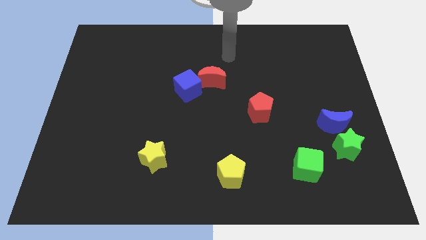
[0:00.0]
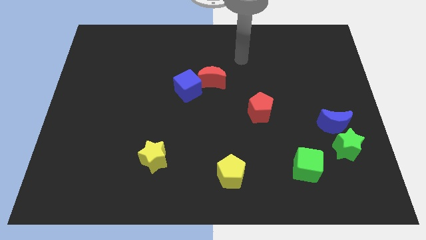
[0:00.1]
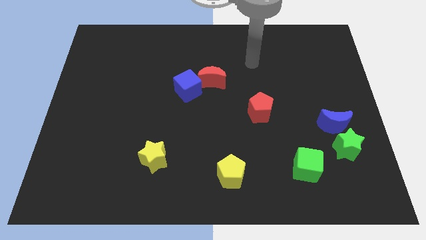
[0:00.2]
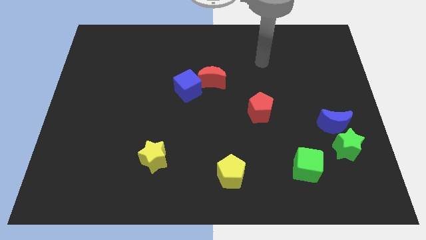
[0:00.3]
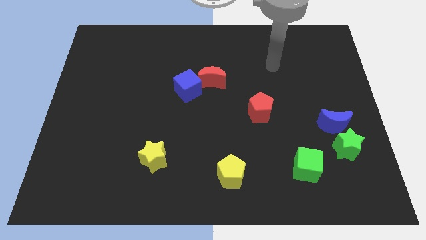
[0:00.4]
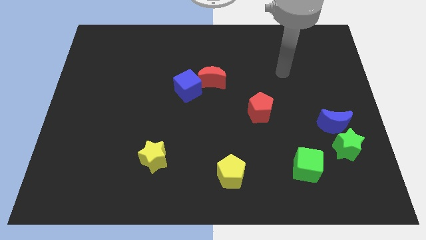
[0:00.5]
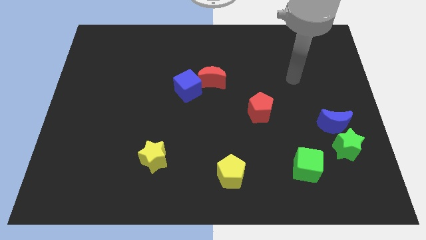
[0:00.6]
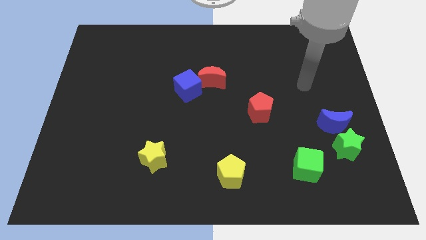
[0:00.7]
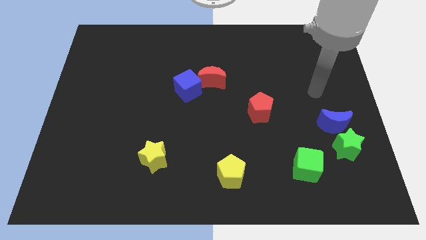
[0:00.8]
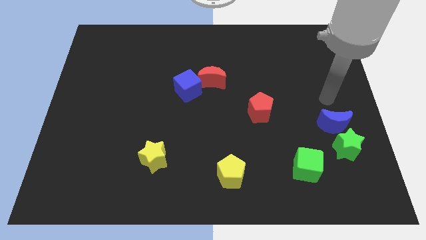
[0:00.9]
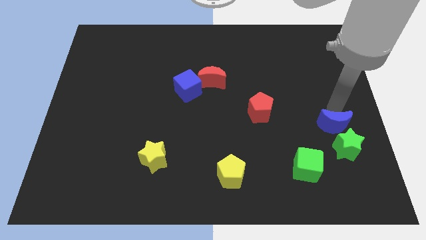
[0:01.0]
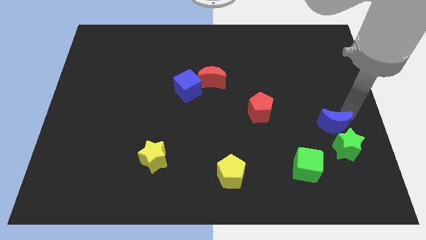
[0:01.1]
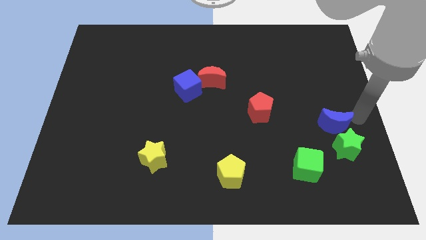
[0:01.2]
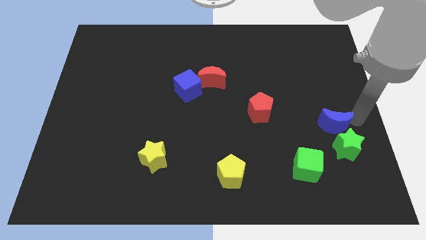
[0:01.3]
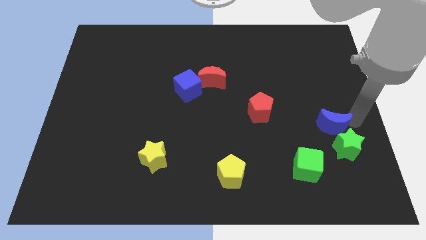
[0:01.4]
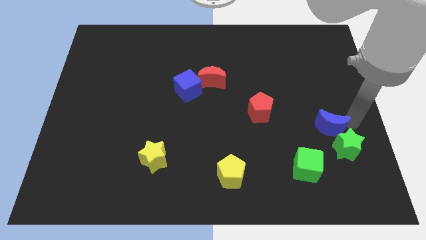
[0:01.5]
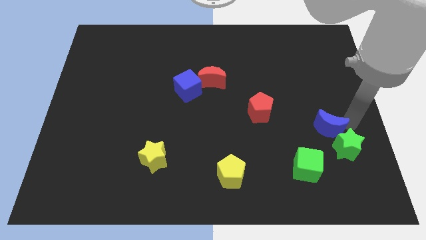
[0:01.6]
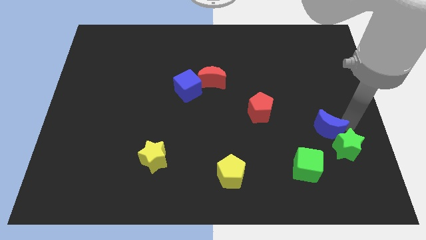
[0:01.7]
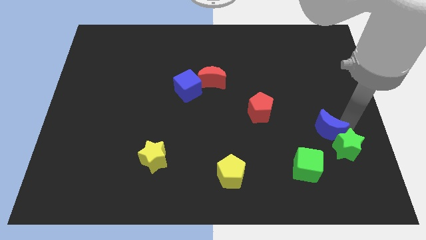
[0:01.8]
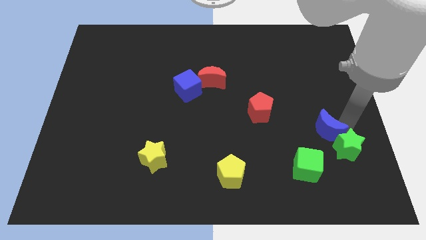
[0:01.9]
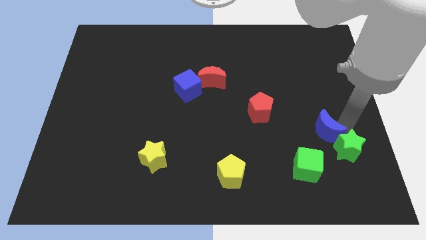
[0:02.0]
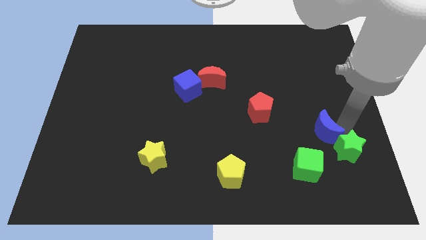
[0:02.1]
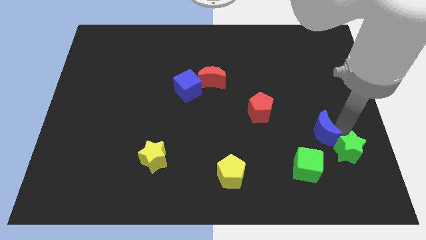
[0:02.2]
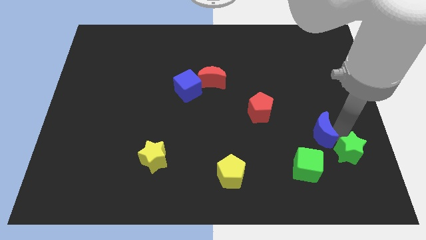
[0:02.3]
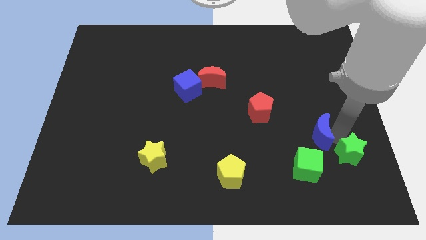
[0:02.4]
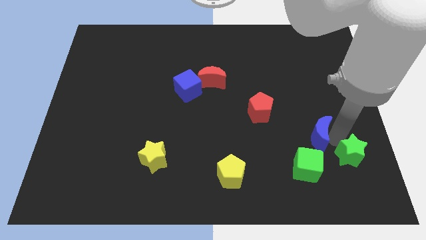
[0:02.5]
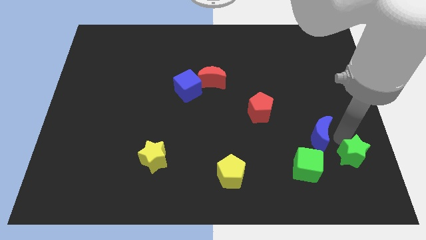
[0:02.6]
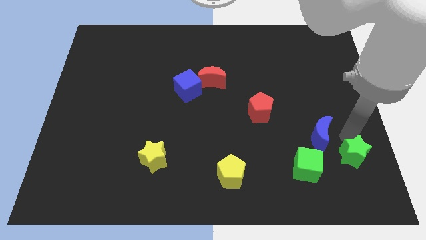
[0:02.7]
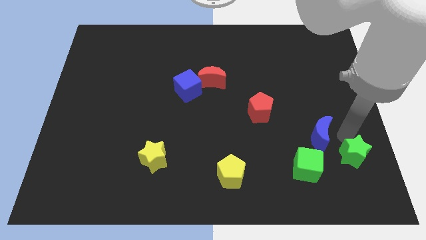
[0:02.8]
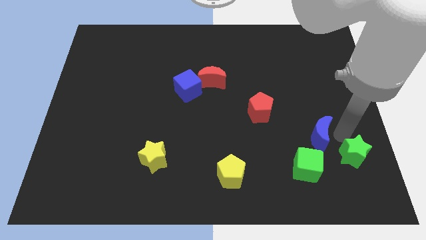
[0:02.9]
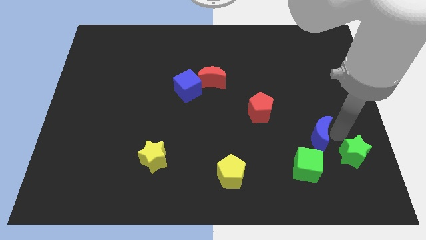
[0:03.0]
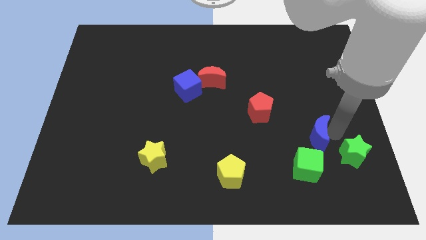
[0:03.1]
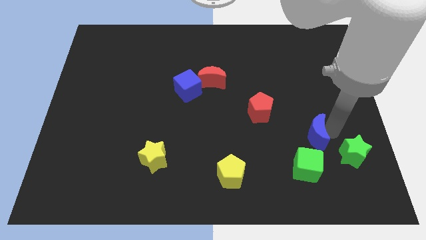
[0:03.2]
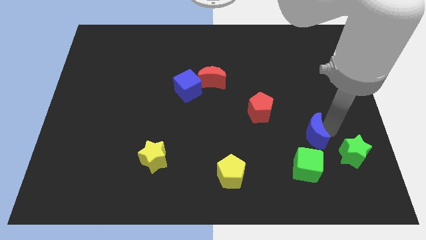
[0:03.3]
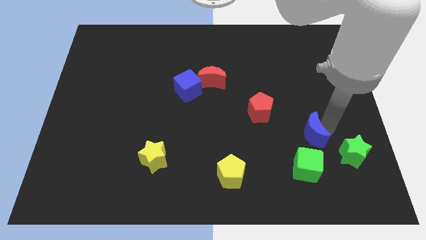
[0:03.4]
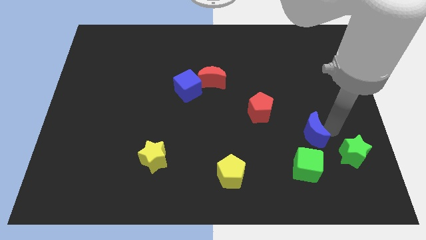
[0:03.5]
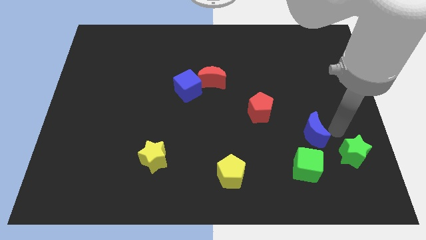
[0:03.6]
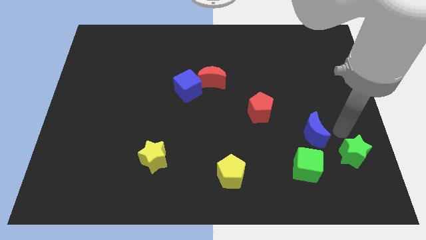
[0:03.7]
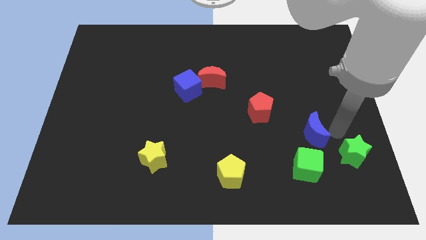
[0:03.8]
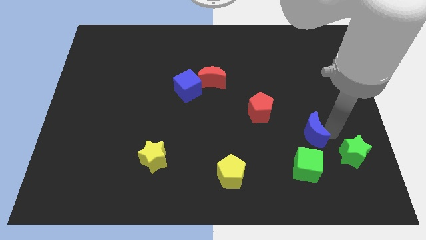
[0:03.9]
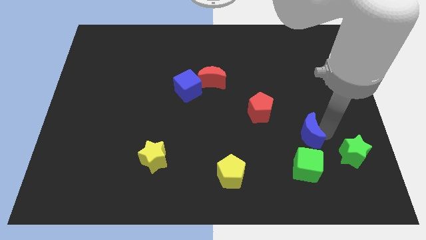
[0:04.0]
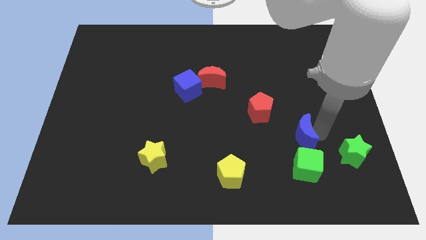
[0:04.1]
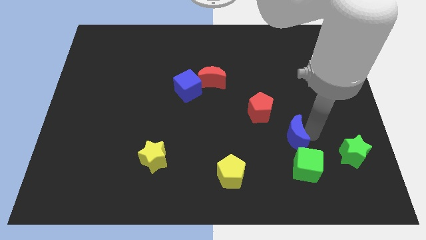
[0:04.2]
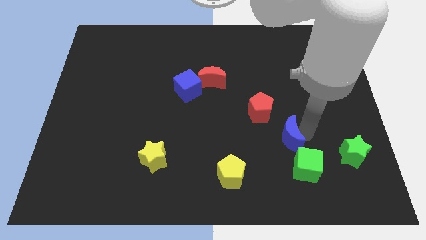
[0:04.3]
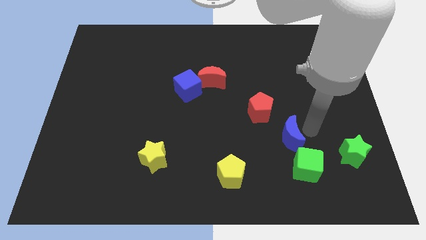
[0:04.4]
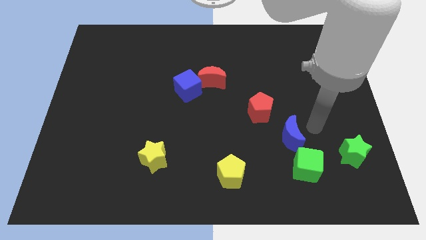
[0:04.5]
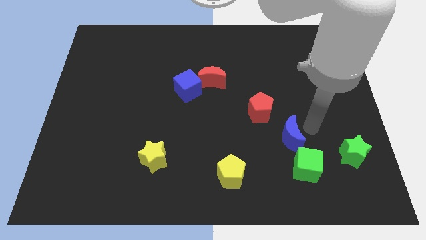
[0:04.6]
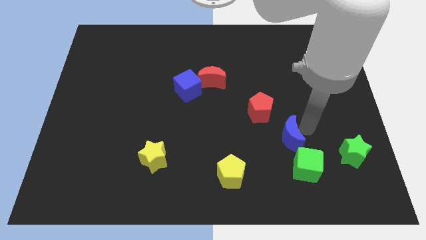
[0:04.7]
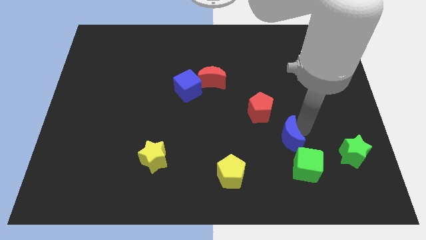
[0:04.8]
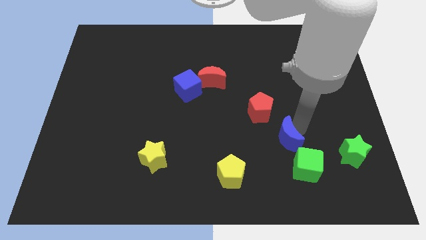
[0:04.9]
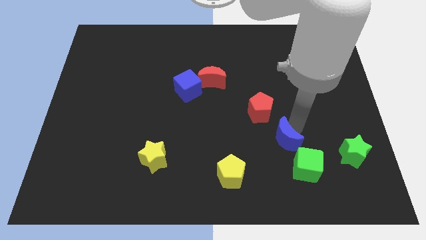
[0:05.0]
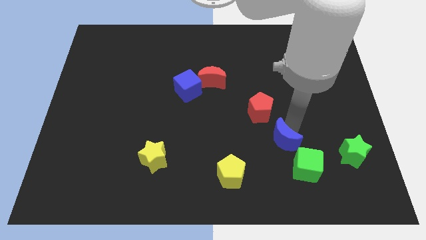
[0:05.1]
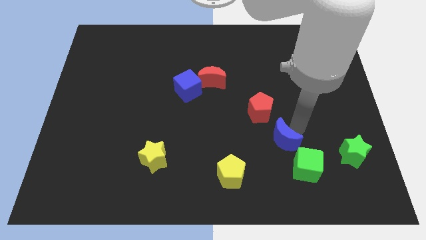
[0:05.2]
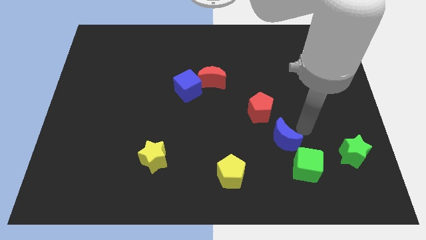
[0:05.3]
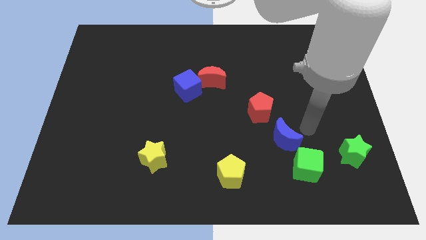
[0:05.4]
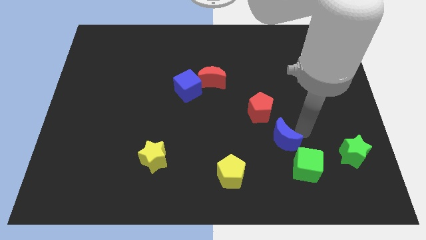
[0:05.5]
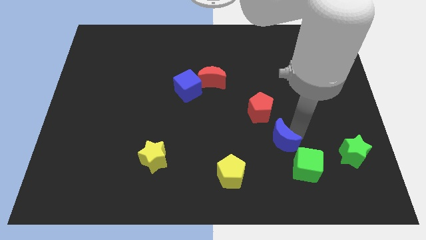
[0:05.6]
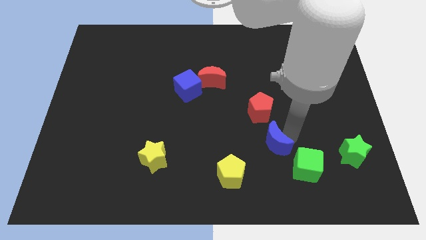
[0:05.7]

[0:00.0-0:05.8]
slide the blue moon to the top right of the yellow pentagon

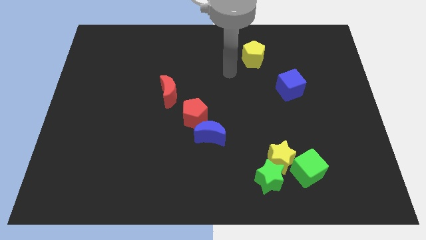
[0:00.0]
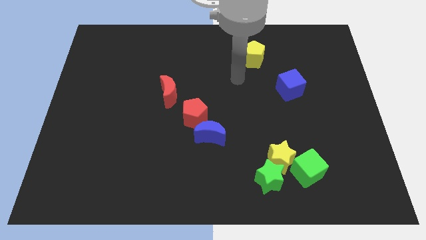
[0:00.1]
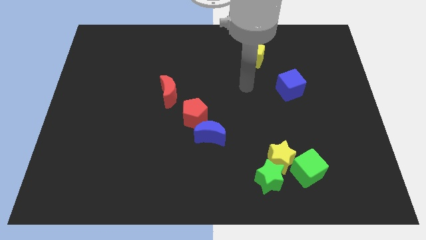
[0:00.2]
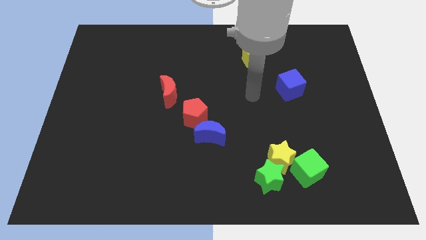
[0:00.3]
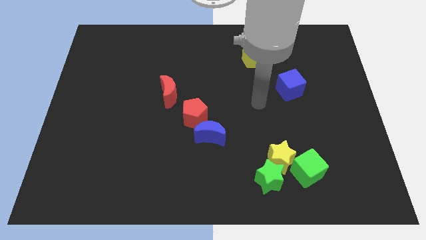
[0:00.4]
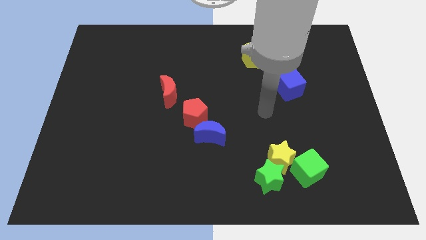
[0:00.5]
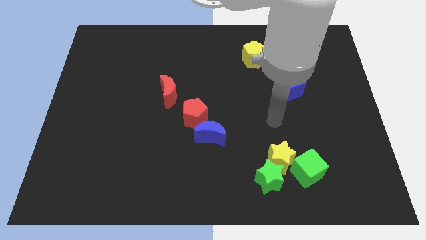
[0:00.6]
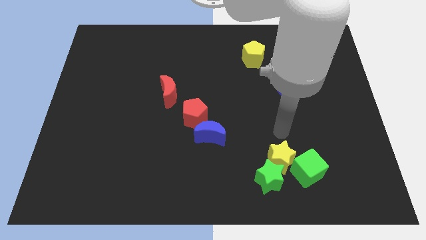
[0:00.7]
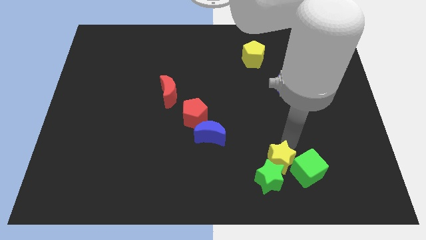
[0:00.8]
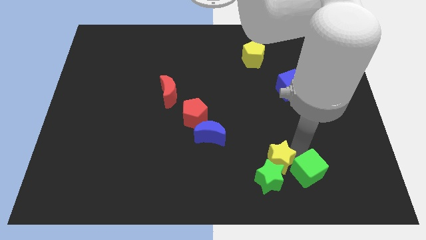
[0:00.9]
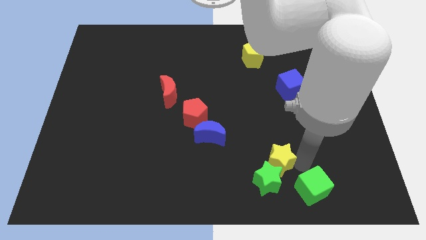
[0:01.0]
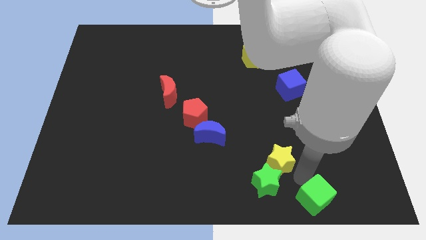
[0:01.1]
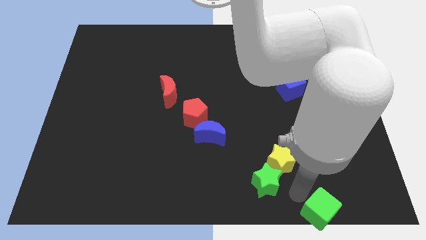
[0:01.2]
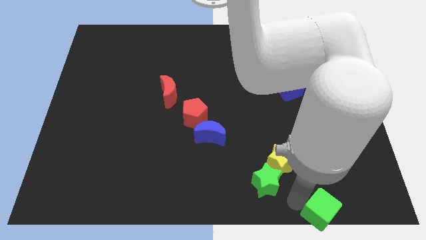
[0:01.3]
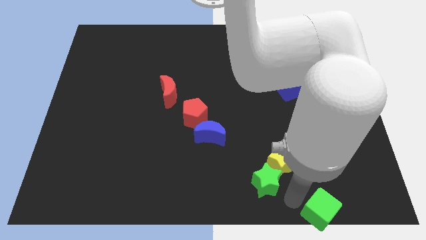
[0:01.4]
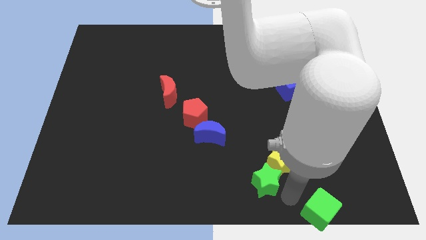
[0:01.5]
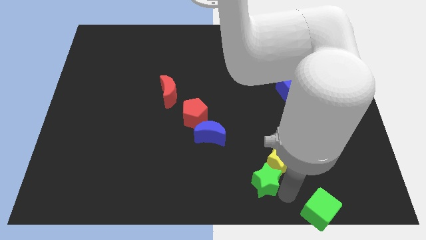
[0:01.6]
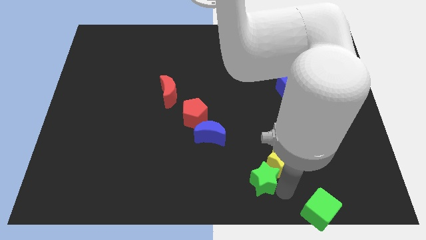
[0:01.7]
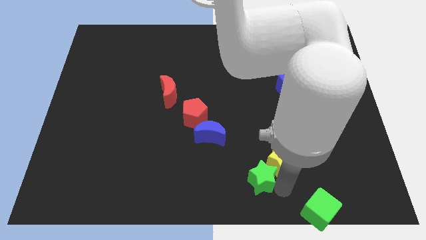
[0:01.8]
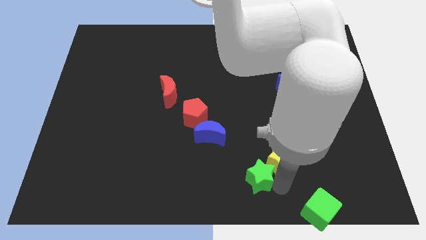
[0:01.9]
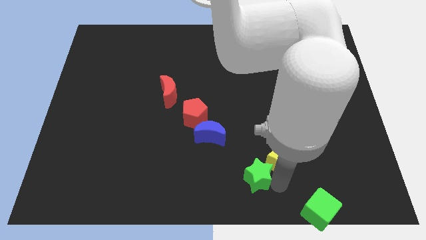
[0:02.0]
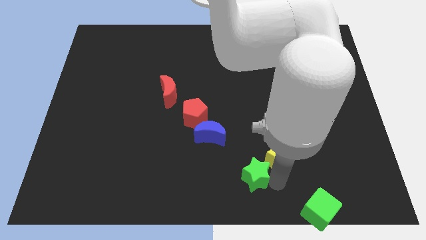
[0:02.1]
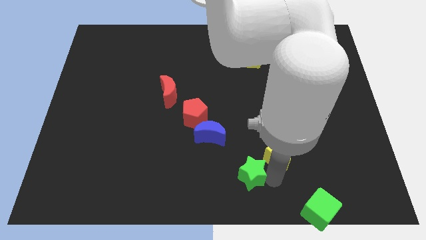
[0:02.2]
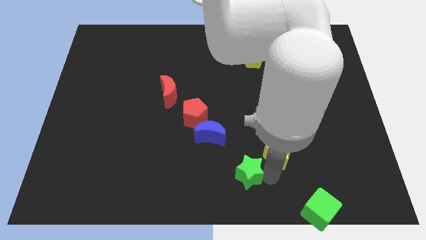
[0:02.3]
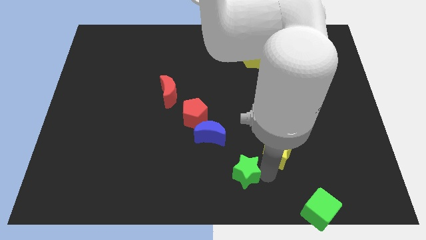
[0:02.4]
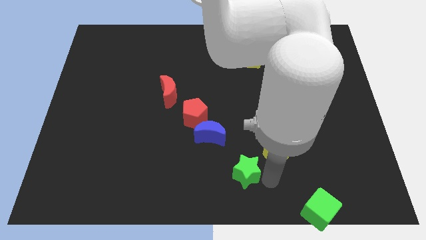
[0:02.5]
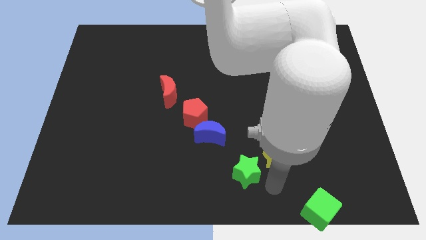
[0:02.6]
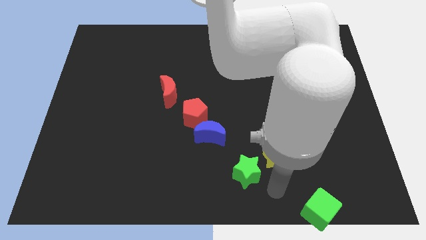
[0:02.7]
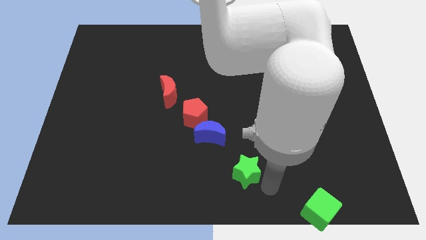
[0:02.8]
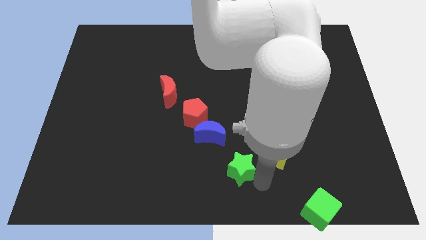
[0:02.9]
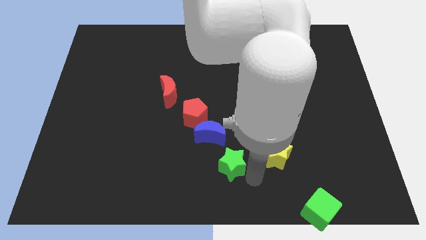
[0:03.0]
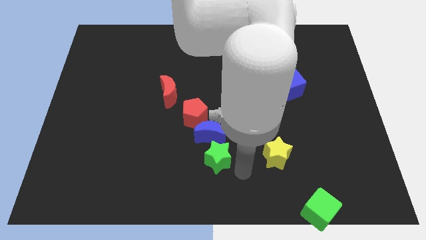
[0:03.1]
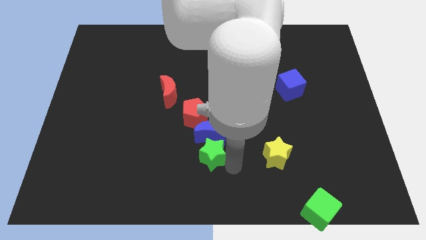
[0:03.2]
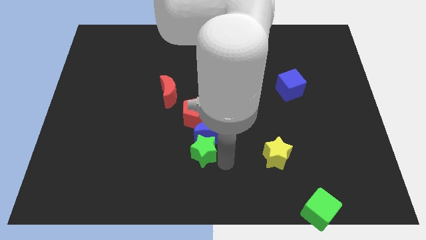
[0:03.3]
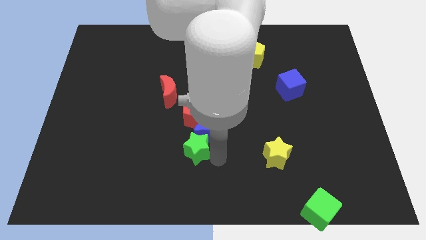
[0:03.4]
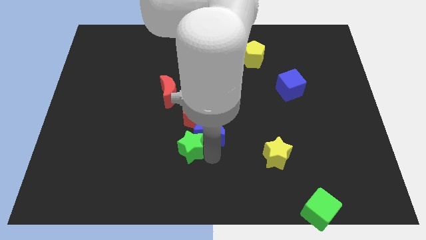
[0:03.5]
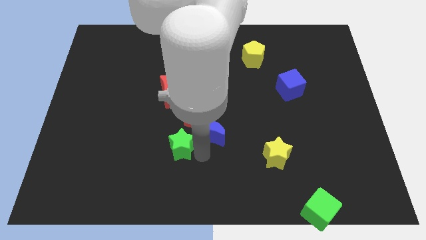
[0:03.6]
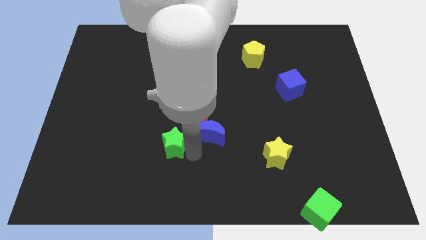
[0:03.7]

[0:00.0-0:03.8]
put the green star below the red moon
